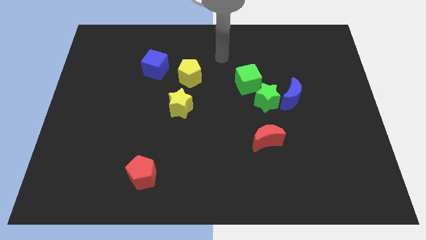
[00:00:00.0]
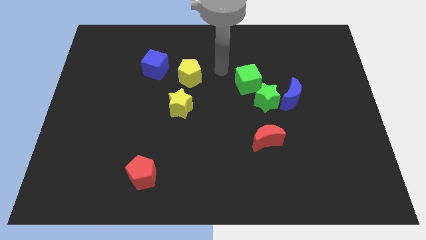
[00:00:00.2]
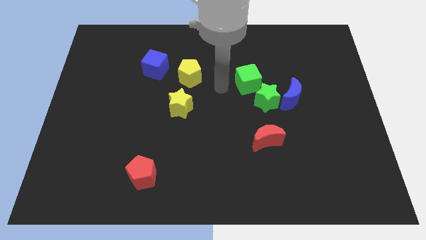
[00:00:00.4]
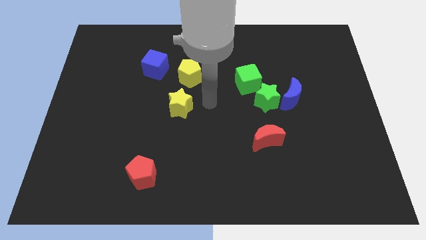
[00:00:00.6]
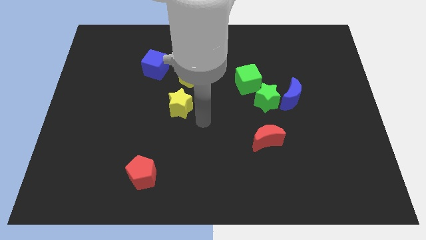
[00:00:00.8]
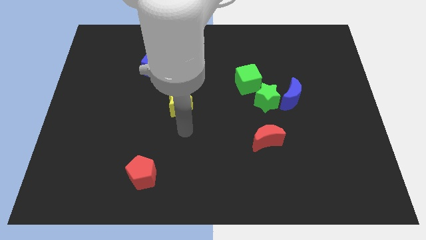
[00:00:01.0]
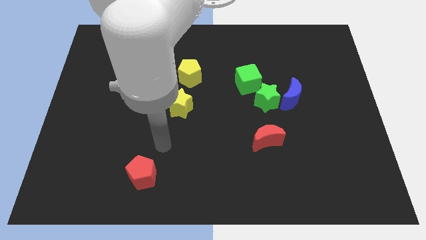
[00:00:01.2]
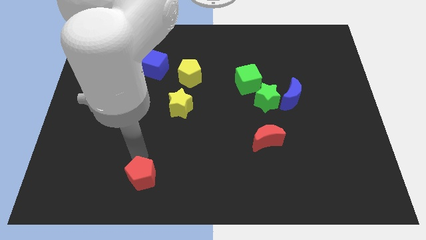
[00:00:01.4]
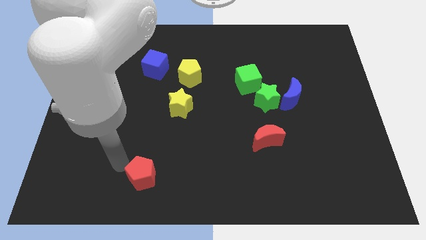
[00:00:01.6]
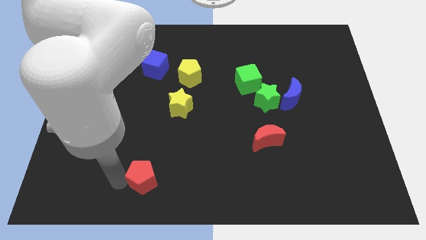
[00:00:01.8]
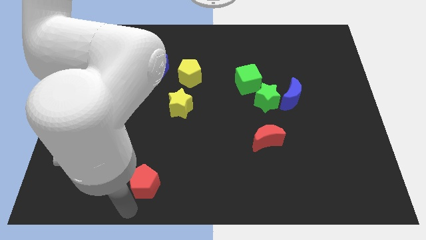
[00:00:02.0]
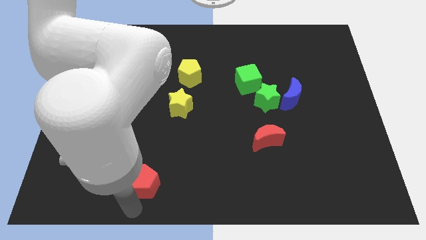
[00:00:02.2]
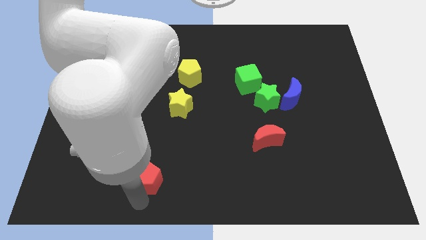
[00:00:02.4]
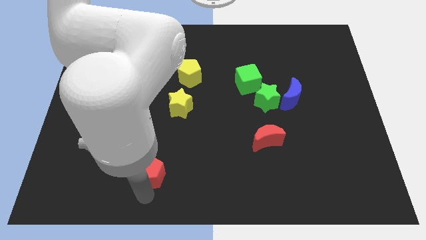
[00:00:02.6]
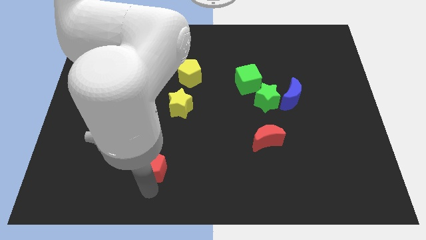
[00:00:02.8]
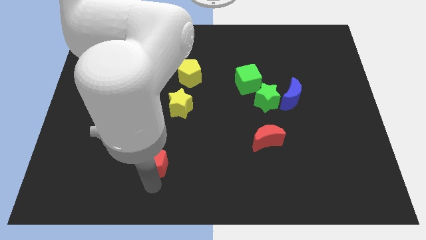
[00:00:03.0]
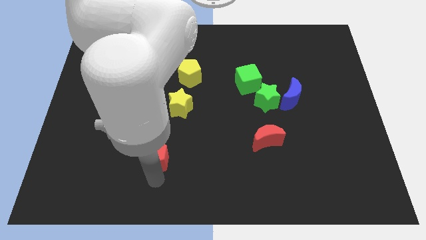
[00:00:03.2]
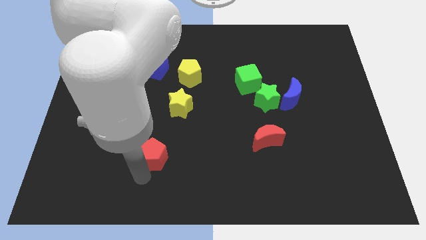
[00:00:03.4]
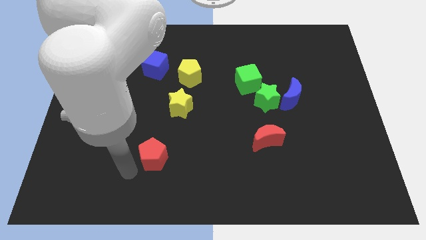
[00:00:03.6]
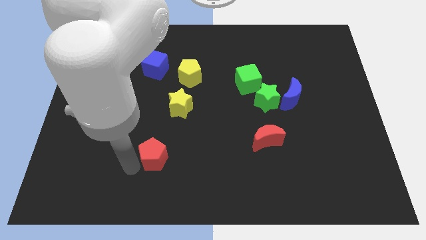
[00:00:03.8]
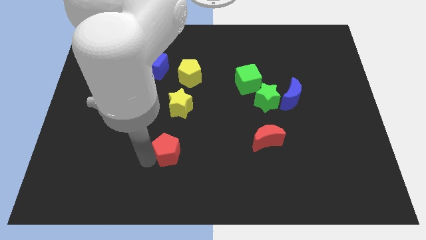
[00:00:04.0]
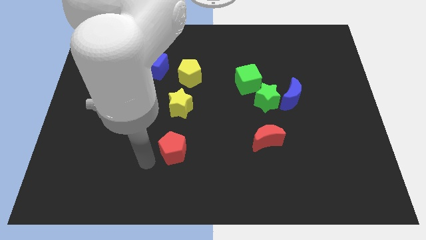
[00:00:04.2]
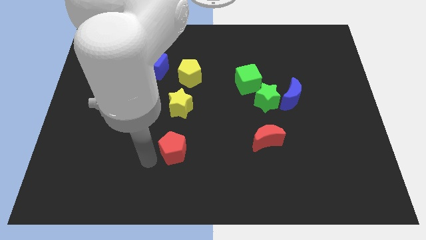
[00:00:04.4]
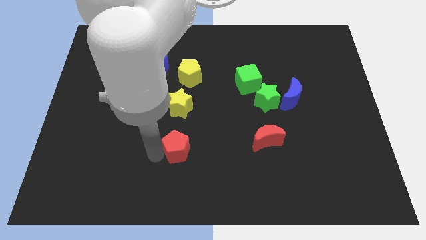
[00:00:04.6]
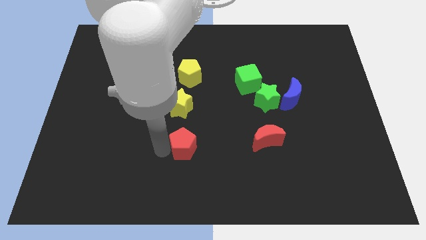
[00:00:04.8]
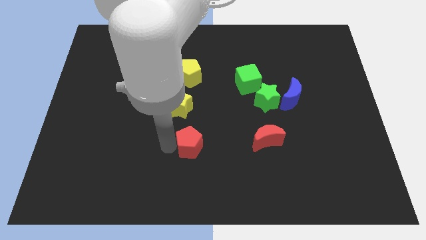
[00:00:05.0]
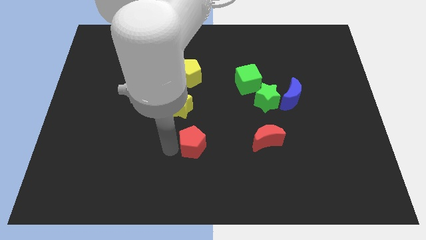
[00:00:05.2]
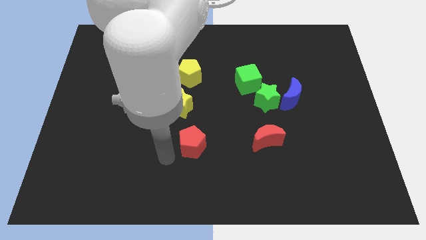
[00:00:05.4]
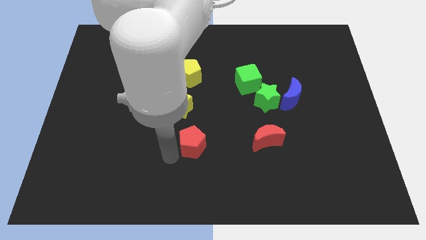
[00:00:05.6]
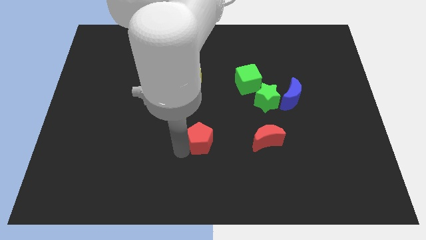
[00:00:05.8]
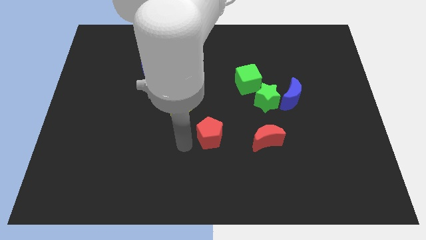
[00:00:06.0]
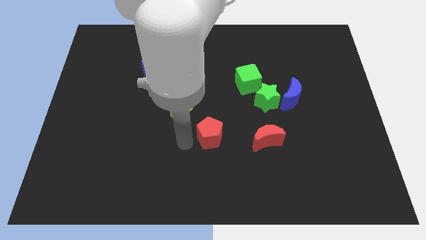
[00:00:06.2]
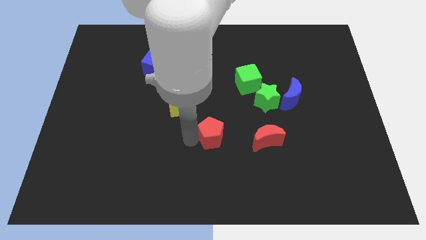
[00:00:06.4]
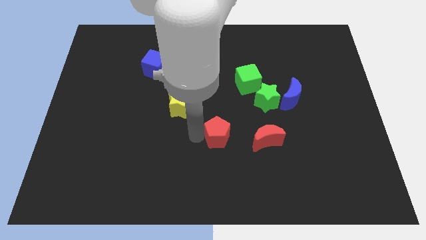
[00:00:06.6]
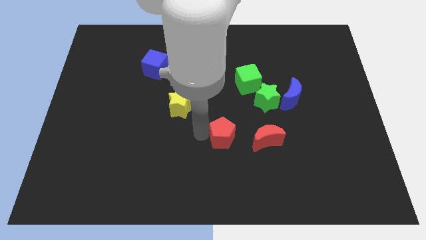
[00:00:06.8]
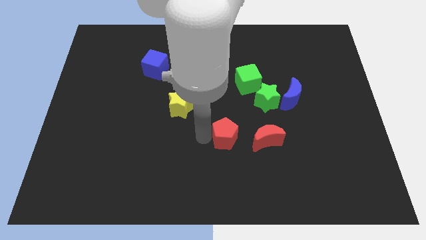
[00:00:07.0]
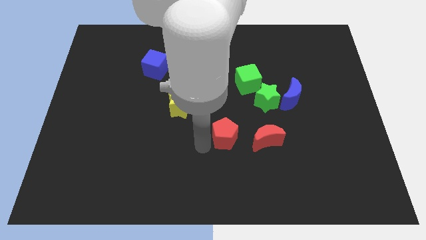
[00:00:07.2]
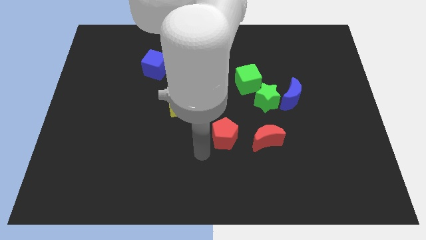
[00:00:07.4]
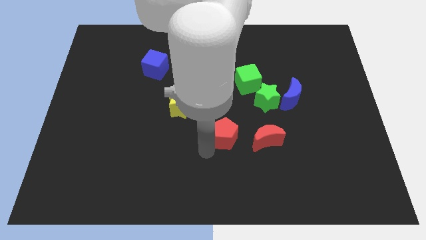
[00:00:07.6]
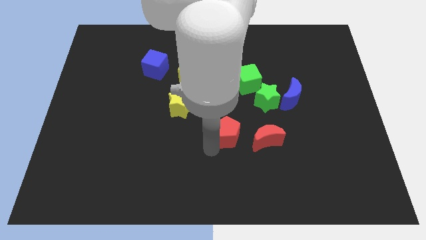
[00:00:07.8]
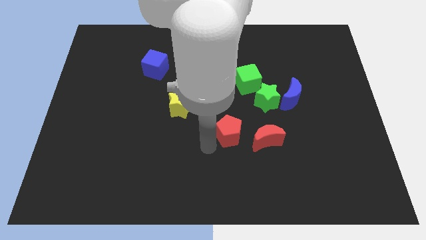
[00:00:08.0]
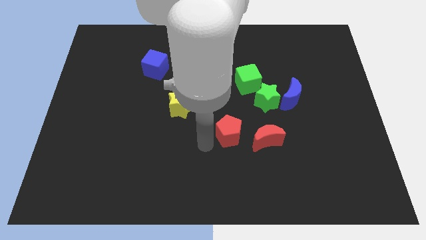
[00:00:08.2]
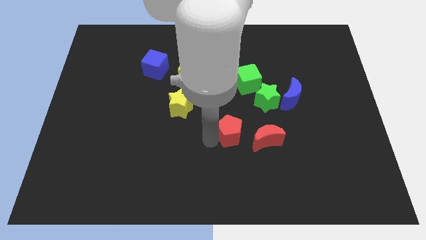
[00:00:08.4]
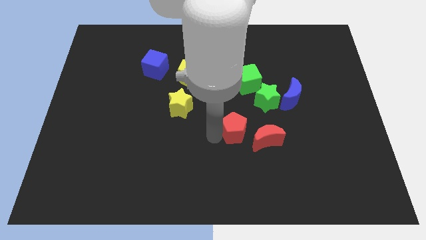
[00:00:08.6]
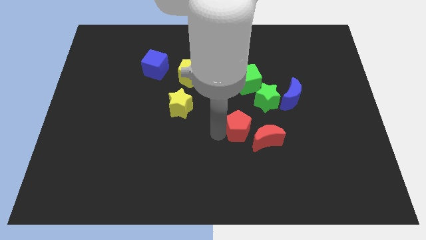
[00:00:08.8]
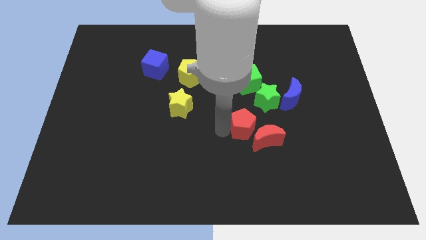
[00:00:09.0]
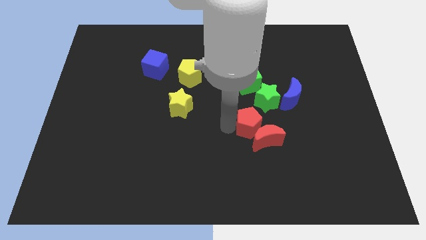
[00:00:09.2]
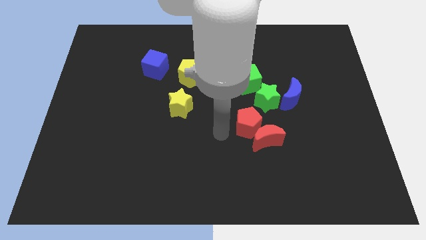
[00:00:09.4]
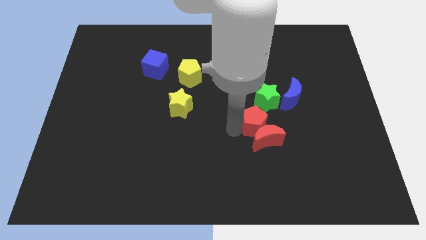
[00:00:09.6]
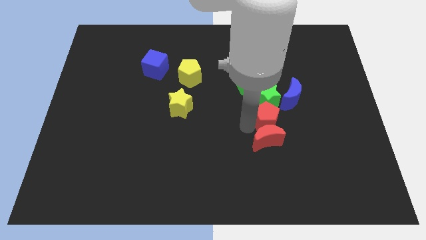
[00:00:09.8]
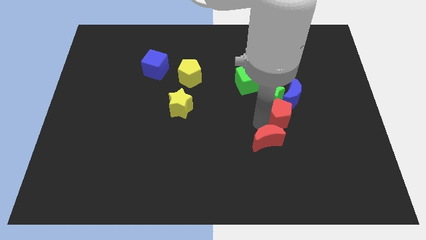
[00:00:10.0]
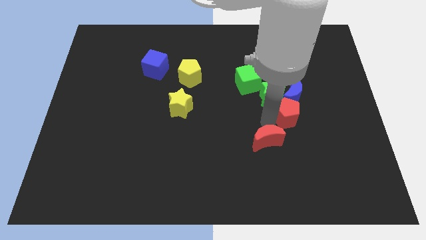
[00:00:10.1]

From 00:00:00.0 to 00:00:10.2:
move the red pentagon towards the blue moon

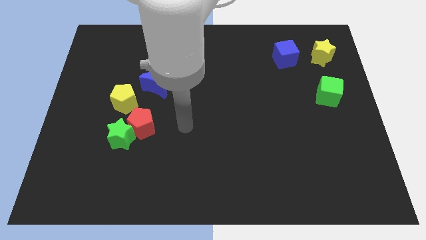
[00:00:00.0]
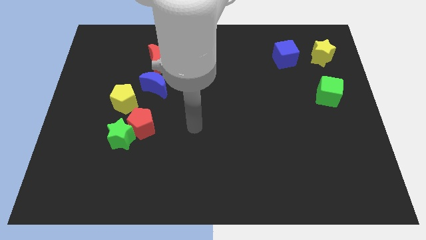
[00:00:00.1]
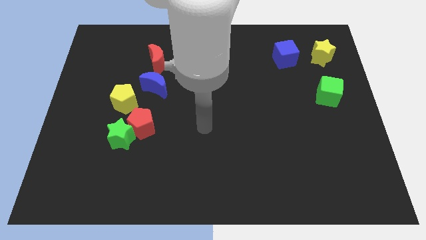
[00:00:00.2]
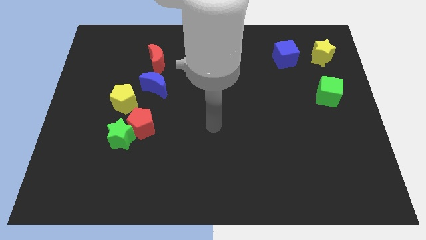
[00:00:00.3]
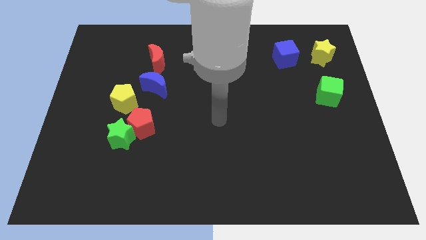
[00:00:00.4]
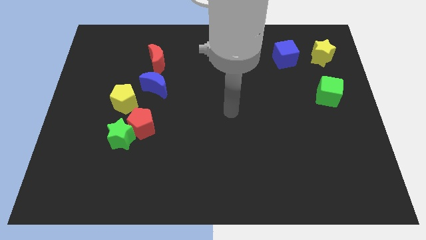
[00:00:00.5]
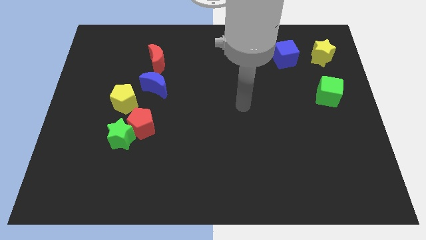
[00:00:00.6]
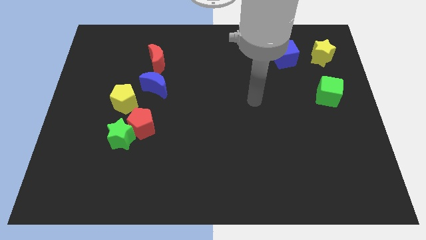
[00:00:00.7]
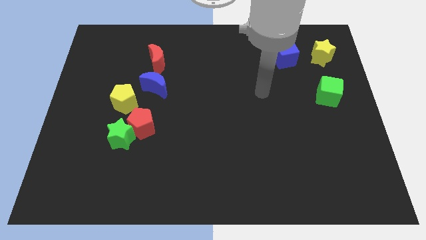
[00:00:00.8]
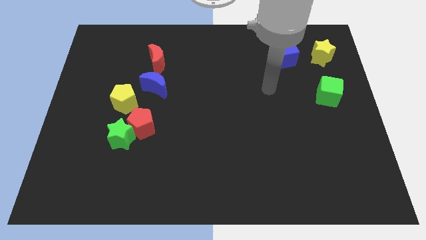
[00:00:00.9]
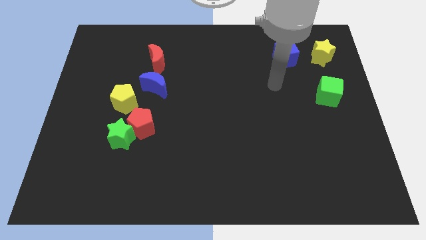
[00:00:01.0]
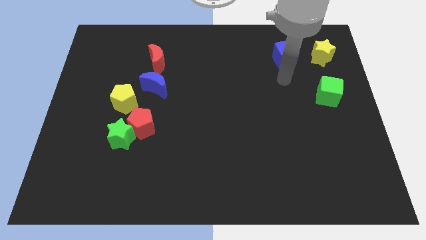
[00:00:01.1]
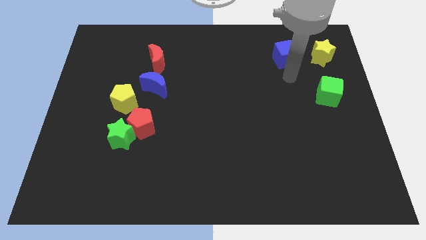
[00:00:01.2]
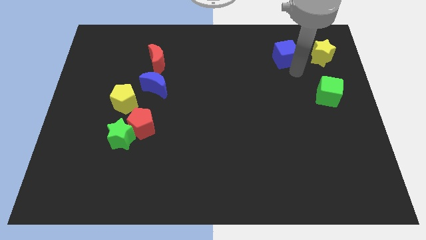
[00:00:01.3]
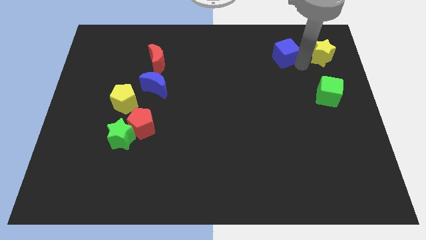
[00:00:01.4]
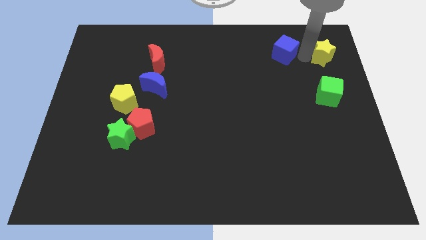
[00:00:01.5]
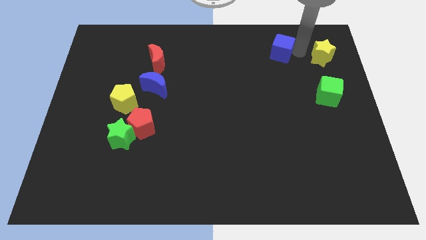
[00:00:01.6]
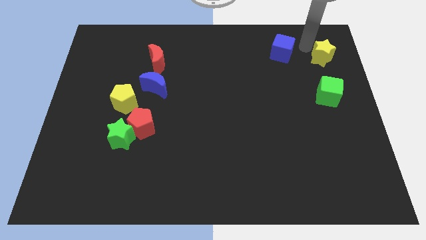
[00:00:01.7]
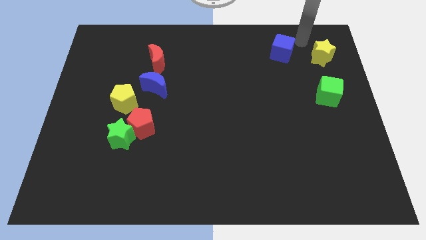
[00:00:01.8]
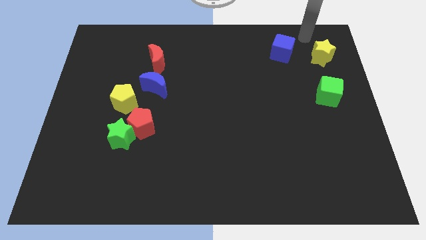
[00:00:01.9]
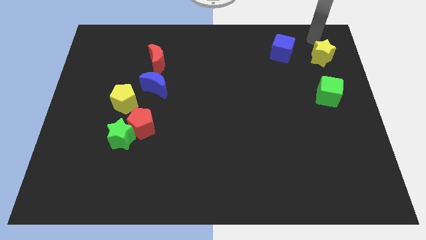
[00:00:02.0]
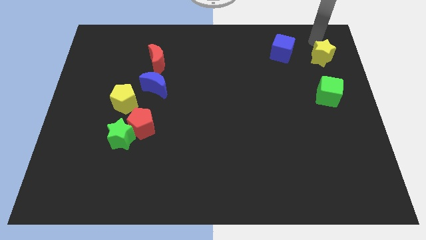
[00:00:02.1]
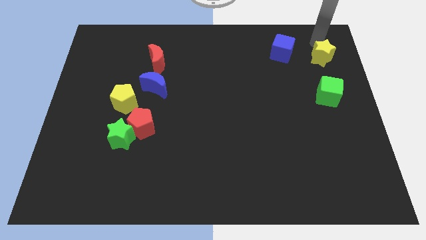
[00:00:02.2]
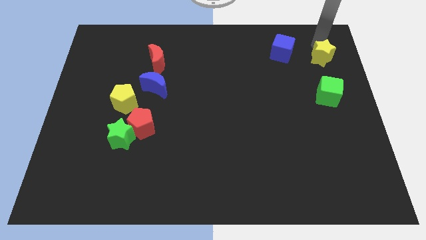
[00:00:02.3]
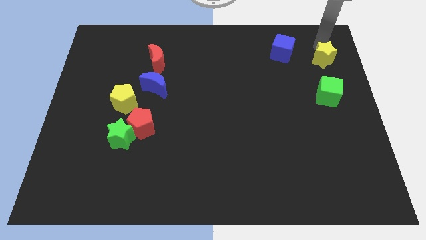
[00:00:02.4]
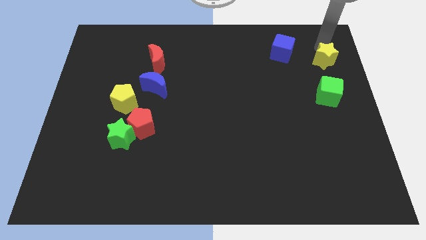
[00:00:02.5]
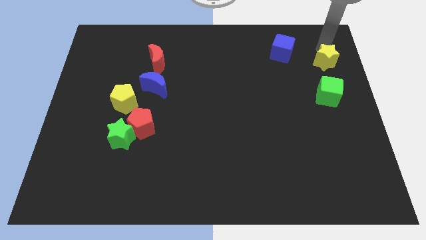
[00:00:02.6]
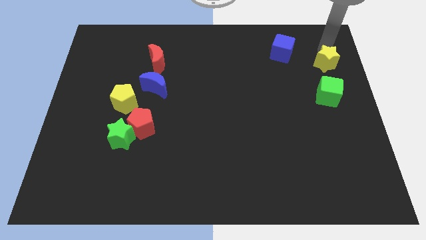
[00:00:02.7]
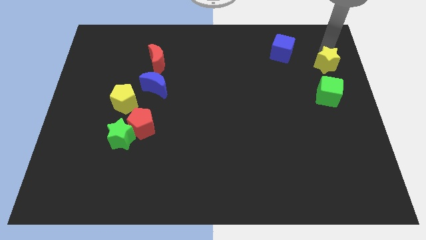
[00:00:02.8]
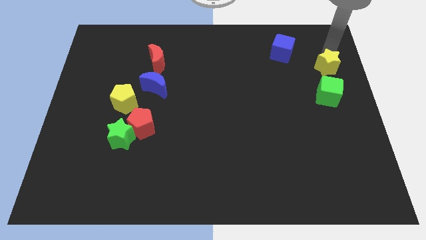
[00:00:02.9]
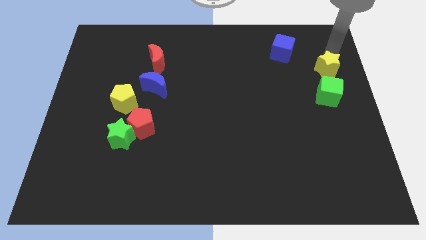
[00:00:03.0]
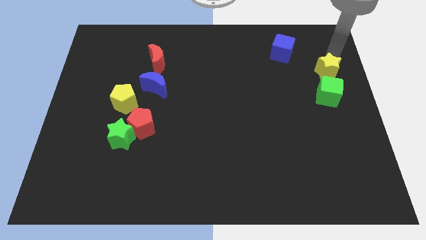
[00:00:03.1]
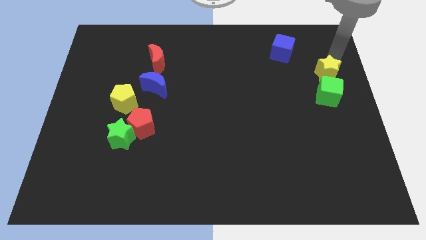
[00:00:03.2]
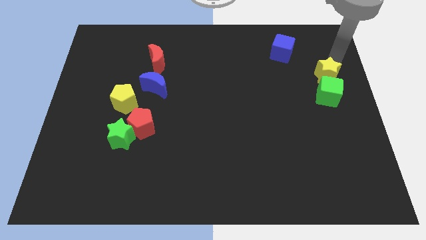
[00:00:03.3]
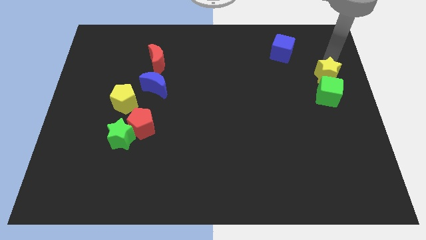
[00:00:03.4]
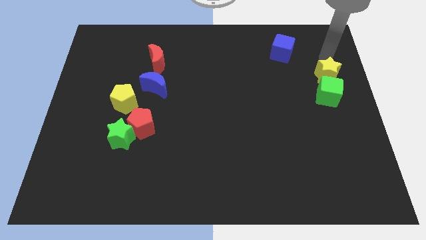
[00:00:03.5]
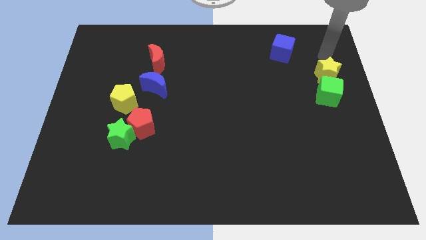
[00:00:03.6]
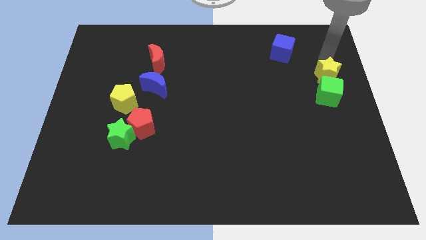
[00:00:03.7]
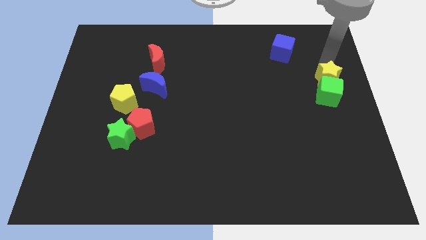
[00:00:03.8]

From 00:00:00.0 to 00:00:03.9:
move the yellow star towards the green cube
